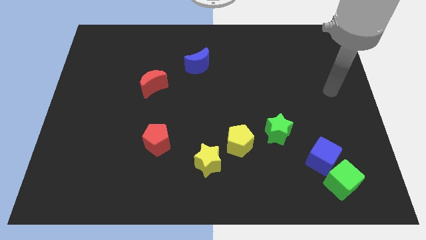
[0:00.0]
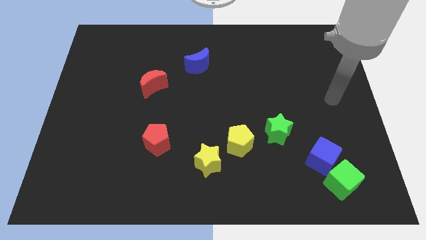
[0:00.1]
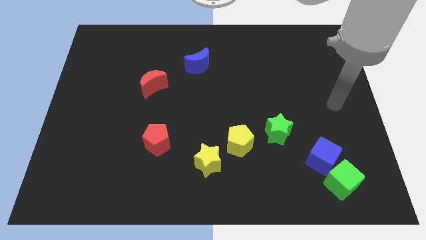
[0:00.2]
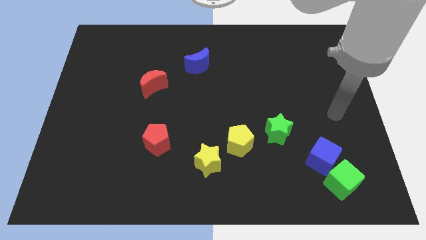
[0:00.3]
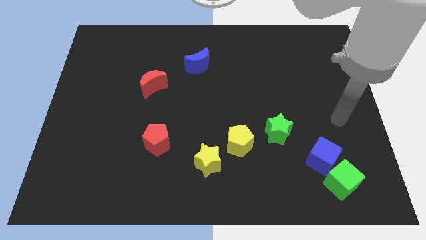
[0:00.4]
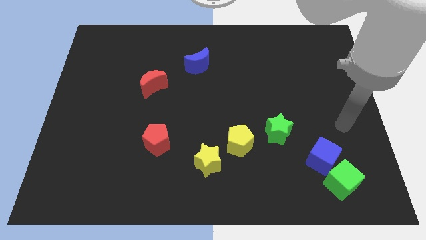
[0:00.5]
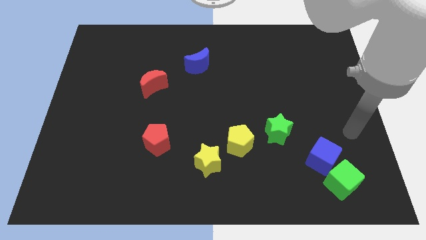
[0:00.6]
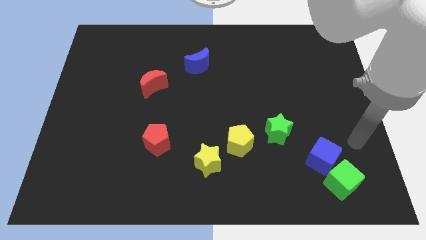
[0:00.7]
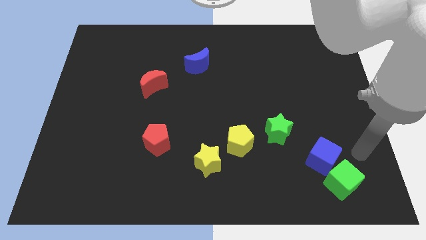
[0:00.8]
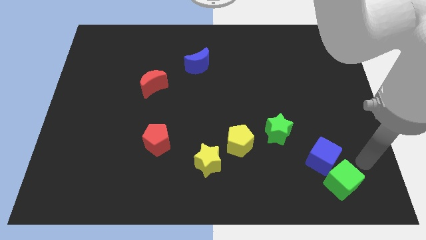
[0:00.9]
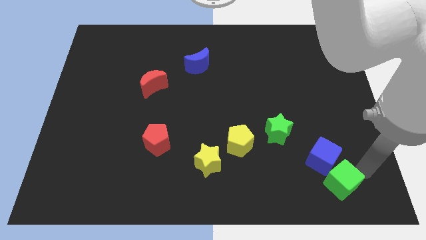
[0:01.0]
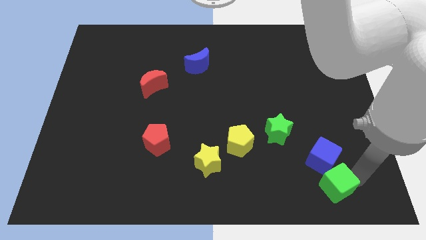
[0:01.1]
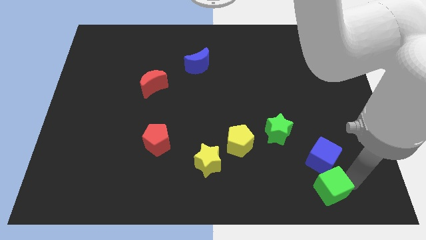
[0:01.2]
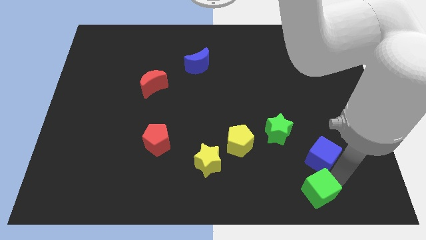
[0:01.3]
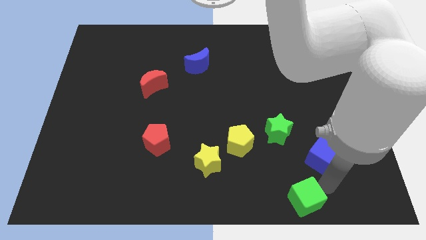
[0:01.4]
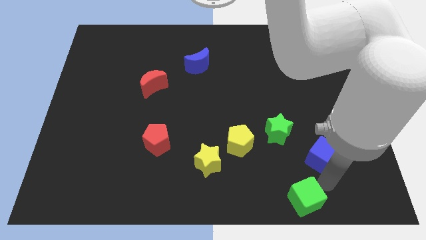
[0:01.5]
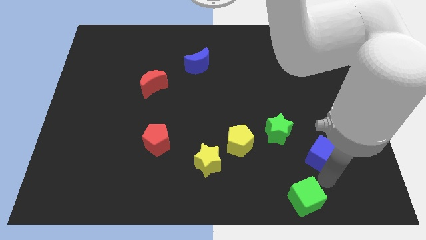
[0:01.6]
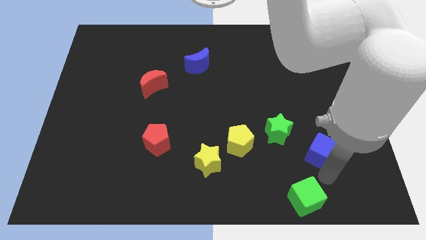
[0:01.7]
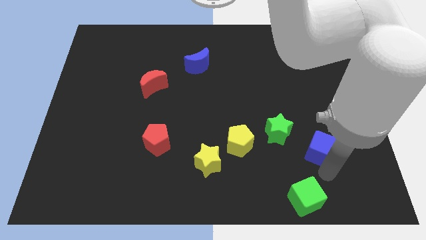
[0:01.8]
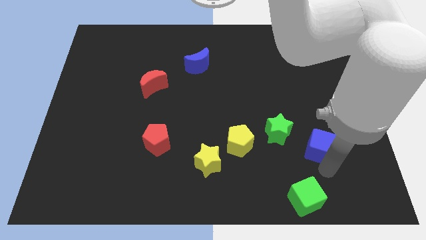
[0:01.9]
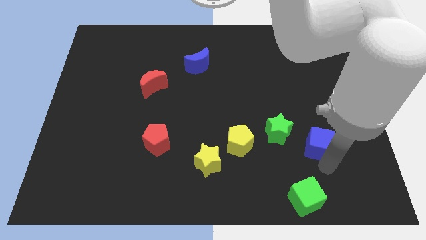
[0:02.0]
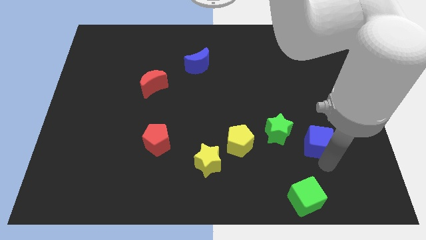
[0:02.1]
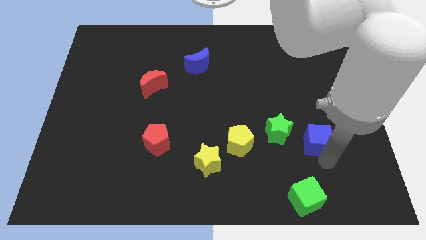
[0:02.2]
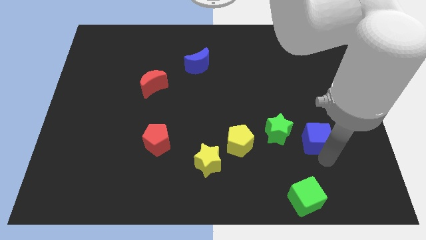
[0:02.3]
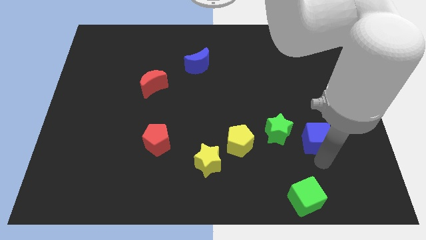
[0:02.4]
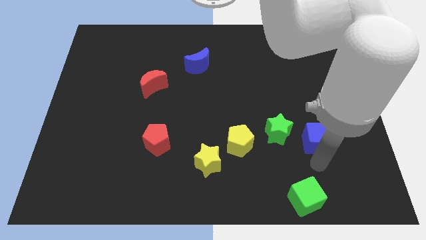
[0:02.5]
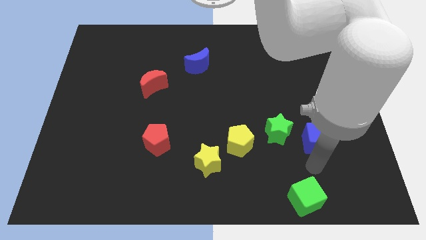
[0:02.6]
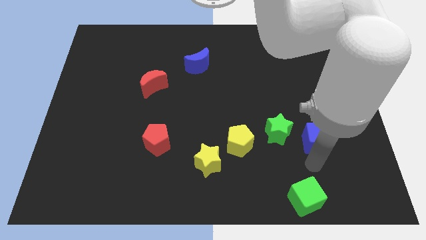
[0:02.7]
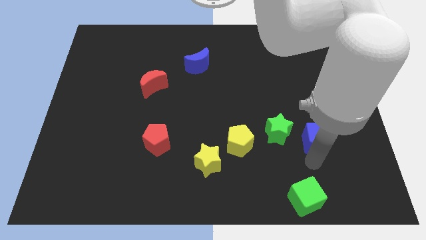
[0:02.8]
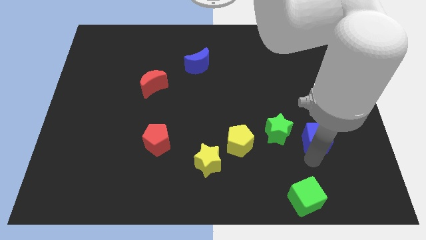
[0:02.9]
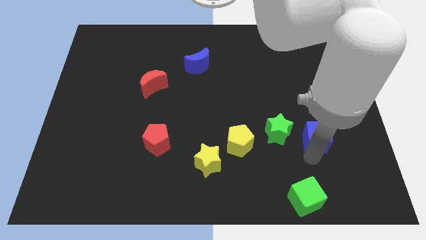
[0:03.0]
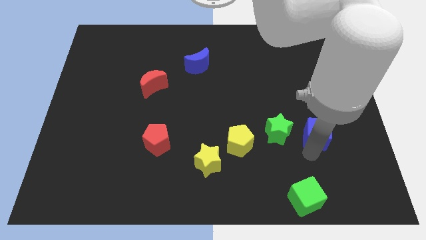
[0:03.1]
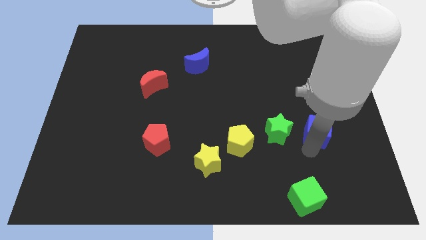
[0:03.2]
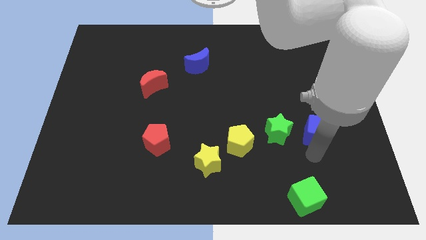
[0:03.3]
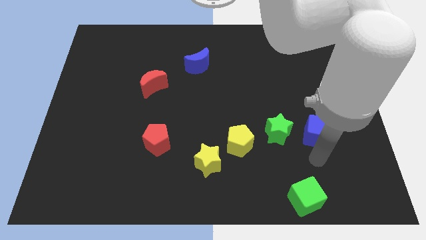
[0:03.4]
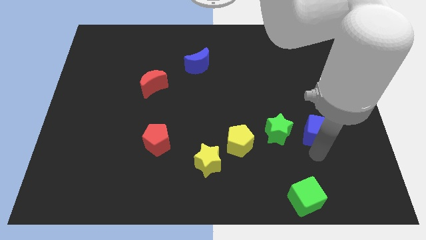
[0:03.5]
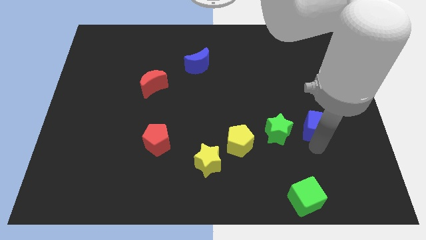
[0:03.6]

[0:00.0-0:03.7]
push the blue cube upwards slightly

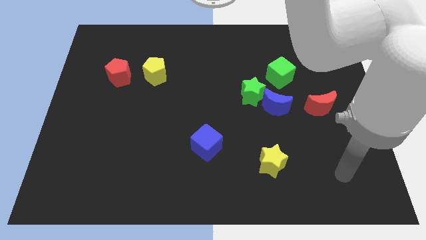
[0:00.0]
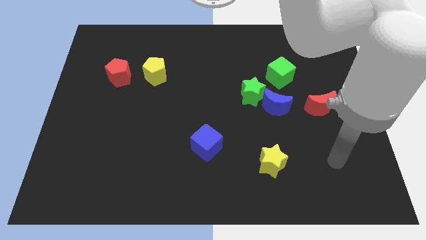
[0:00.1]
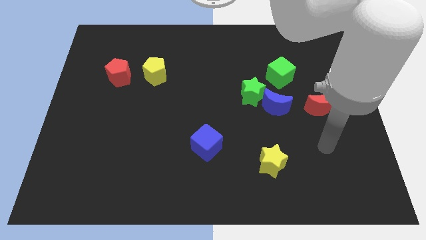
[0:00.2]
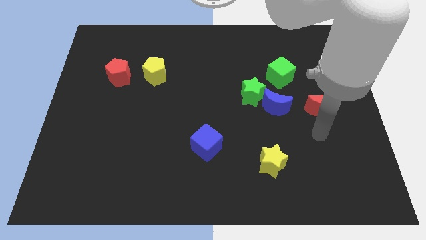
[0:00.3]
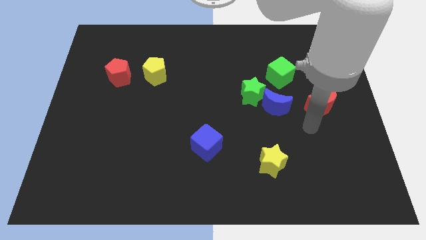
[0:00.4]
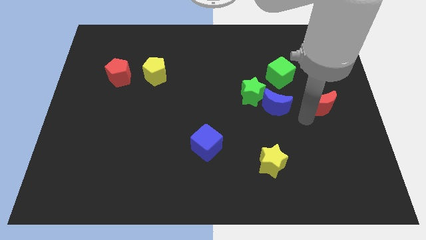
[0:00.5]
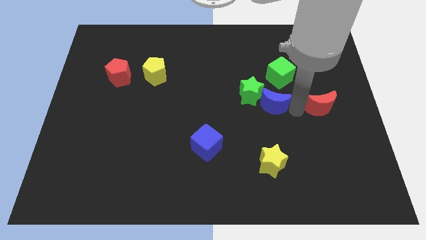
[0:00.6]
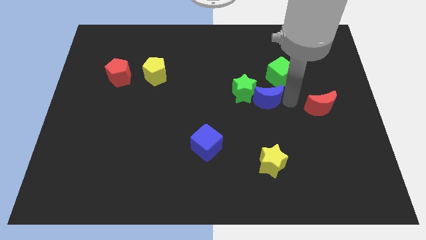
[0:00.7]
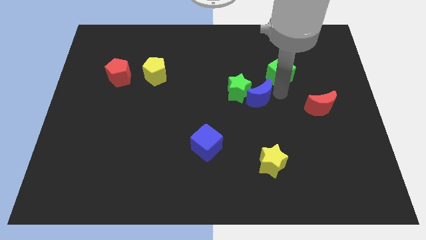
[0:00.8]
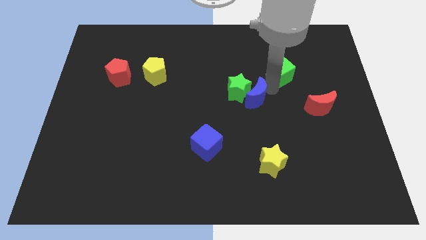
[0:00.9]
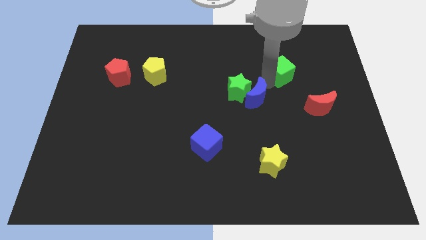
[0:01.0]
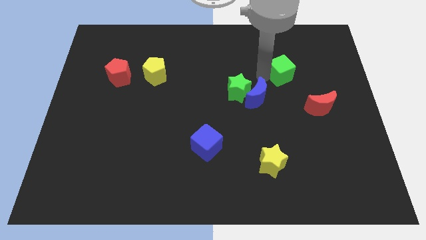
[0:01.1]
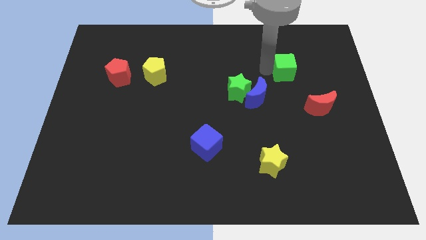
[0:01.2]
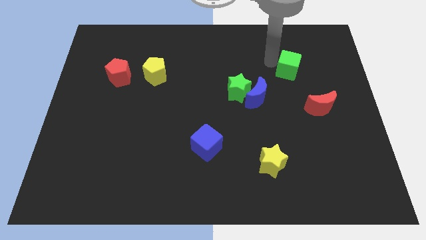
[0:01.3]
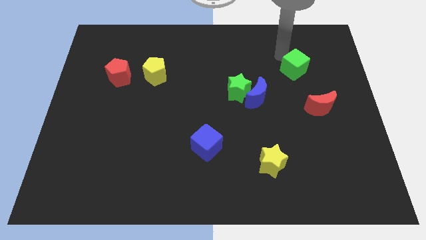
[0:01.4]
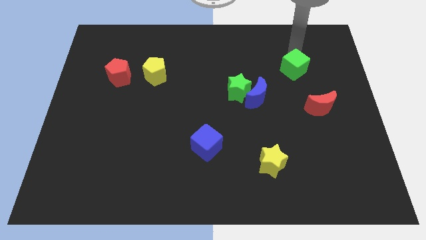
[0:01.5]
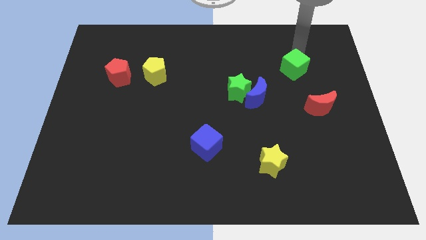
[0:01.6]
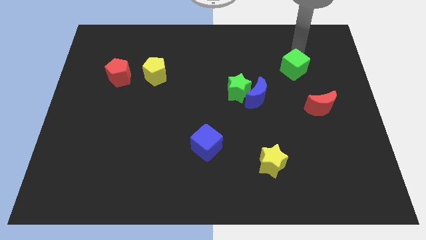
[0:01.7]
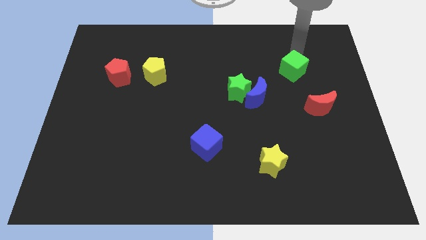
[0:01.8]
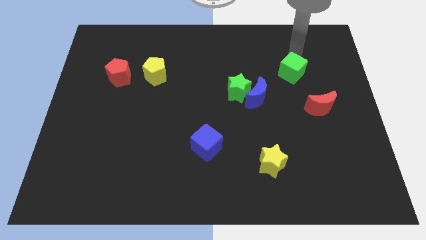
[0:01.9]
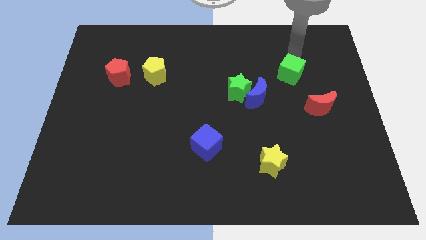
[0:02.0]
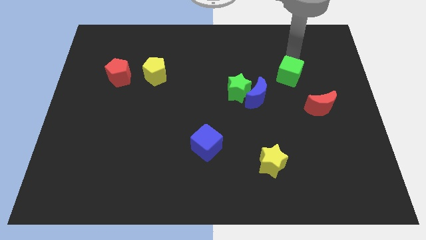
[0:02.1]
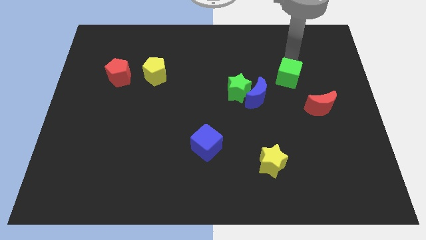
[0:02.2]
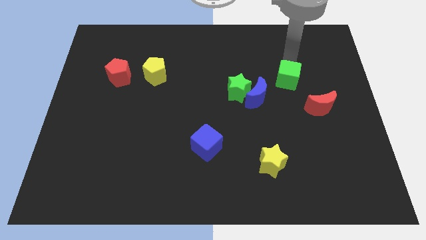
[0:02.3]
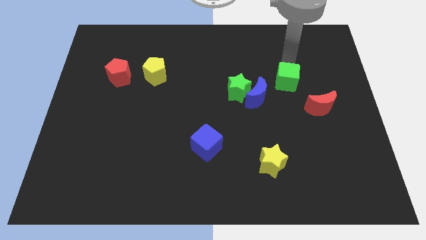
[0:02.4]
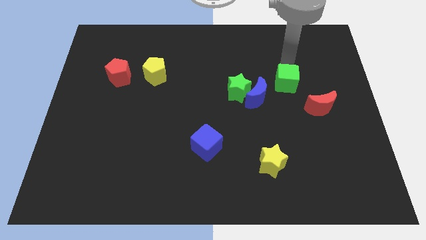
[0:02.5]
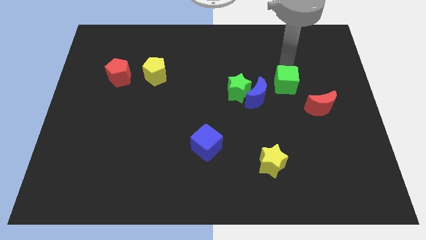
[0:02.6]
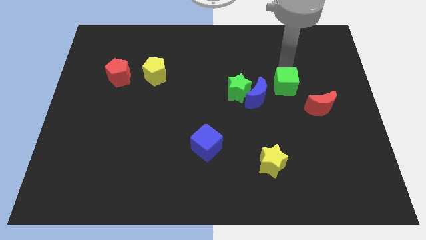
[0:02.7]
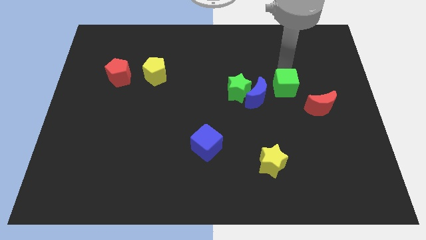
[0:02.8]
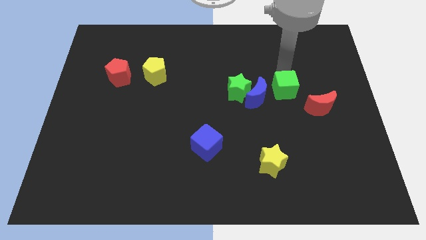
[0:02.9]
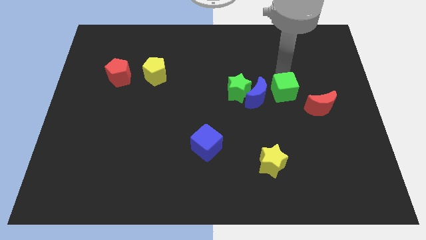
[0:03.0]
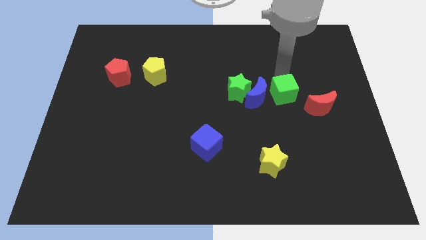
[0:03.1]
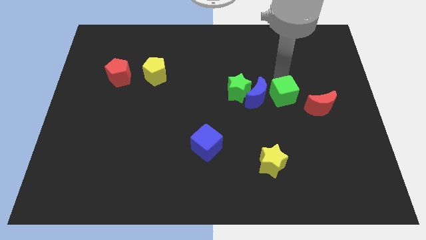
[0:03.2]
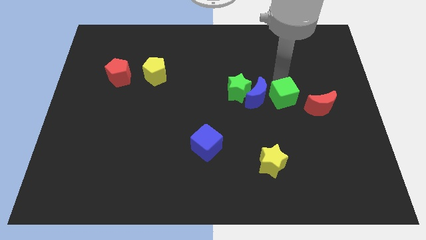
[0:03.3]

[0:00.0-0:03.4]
slide the green cube a little bit down

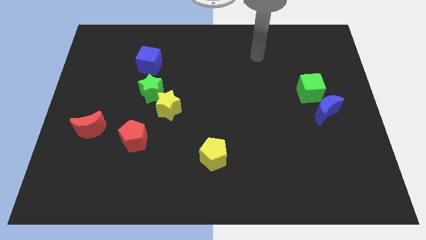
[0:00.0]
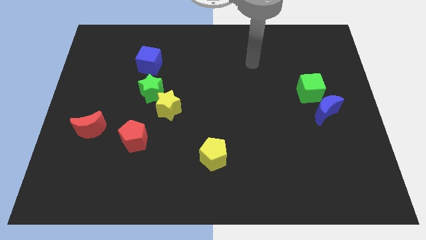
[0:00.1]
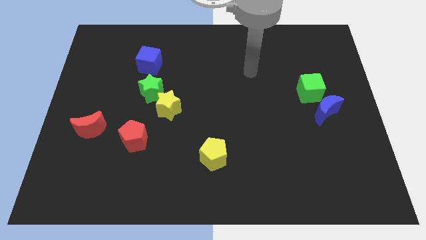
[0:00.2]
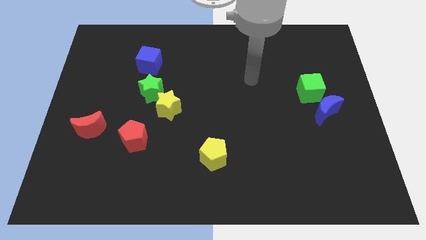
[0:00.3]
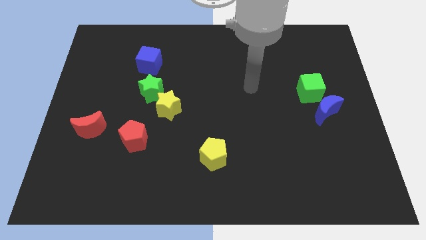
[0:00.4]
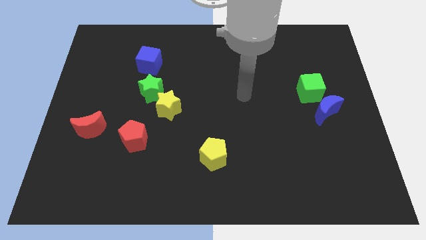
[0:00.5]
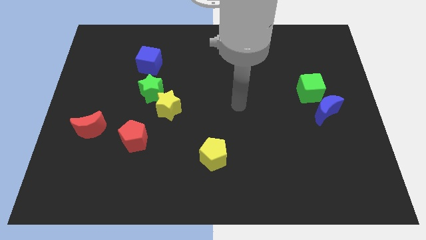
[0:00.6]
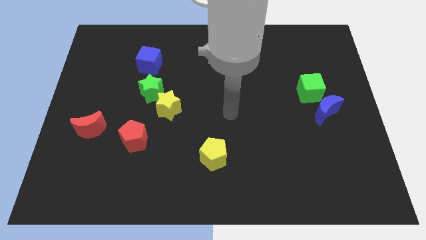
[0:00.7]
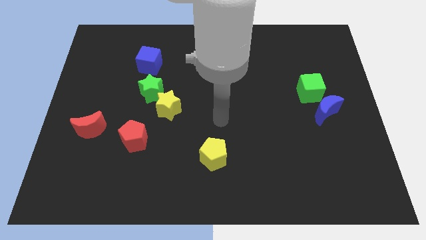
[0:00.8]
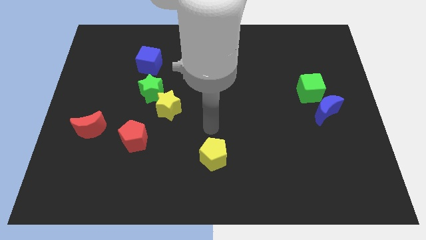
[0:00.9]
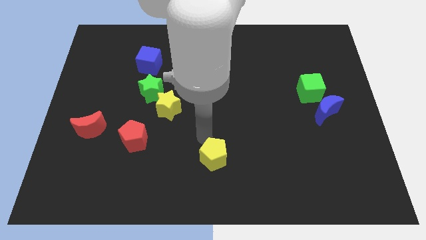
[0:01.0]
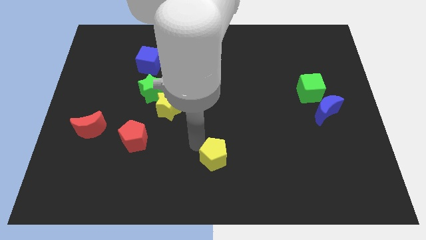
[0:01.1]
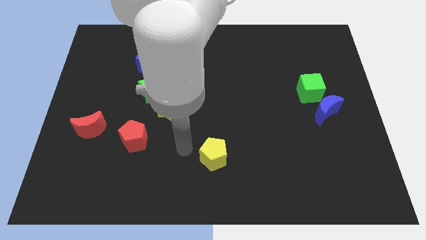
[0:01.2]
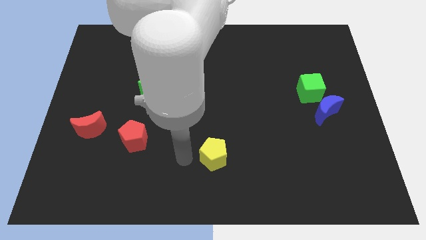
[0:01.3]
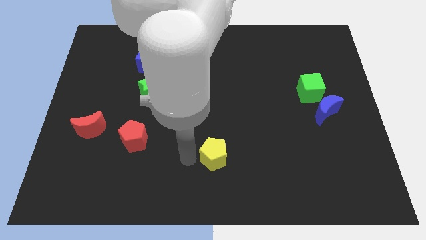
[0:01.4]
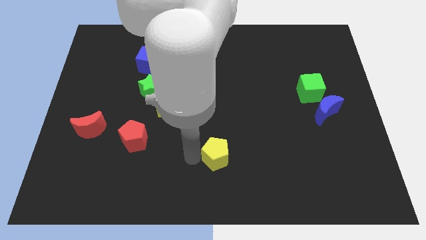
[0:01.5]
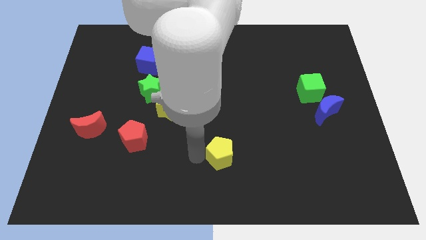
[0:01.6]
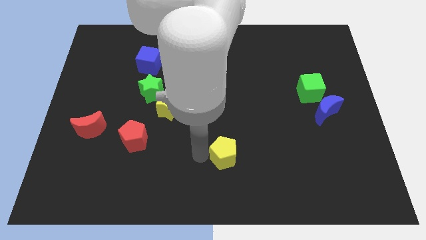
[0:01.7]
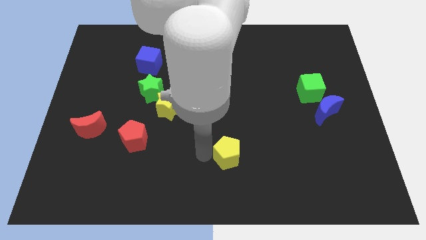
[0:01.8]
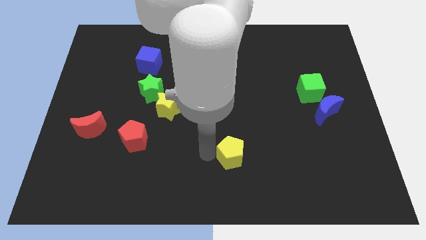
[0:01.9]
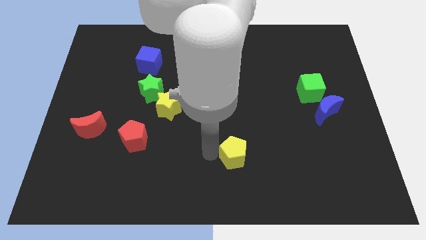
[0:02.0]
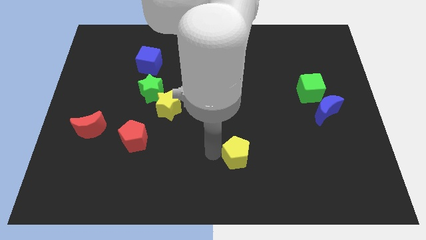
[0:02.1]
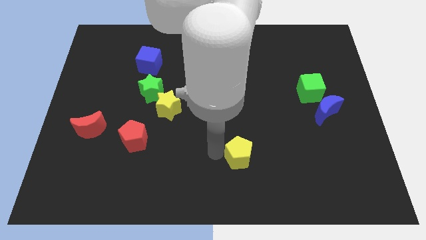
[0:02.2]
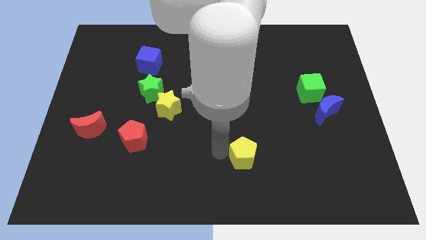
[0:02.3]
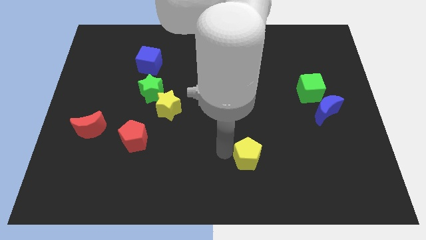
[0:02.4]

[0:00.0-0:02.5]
move the yellow pentagon to the right a little bit
